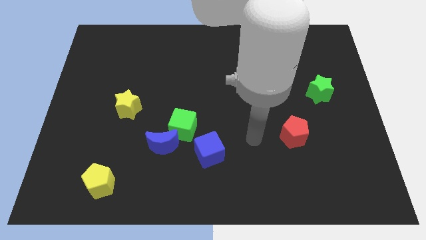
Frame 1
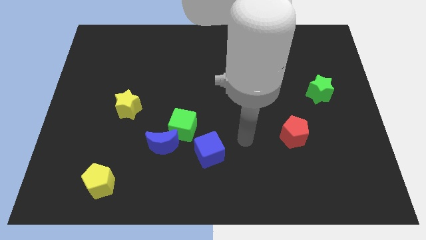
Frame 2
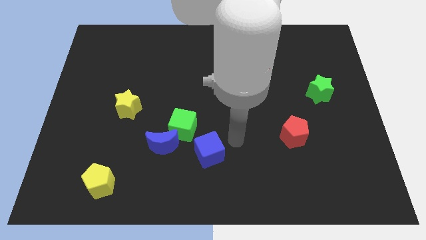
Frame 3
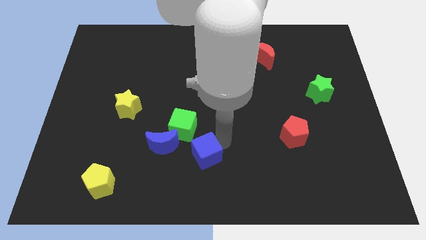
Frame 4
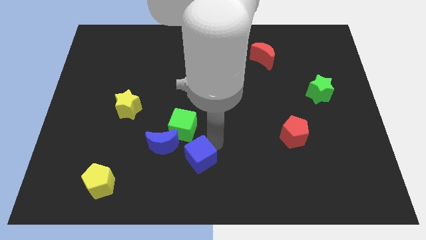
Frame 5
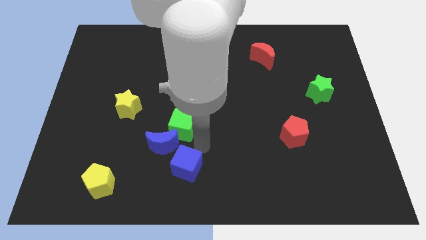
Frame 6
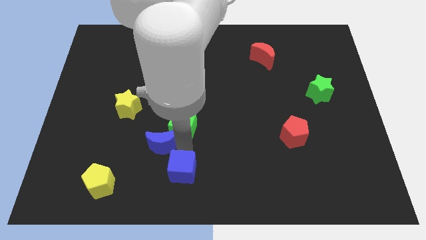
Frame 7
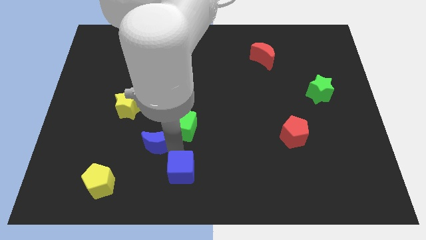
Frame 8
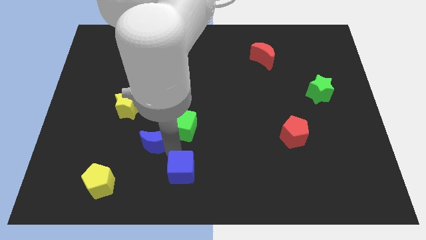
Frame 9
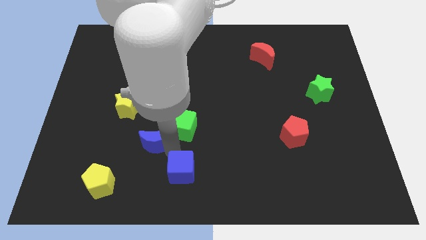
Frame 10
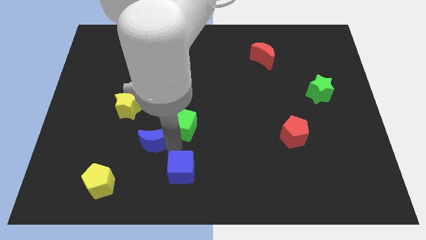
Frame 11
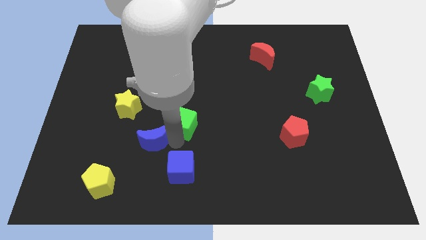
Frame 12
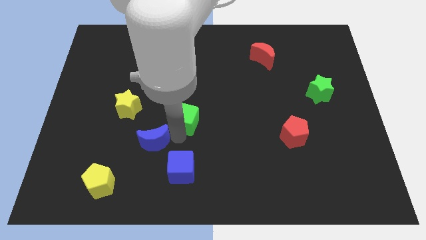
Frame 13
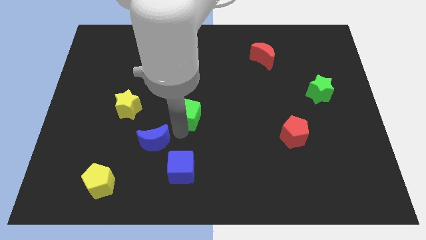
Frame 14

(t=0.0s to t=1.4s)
separate the green cube from the blue moon and blue cube

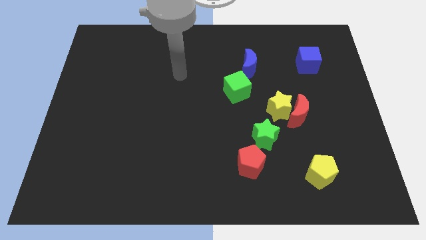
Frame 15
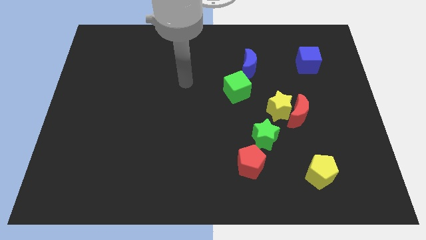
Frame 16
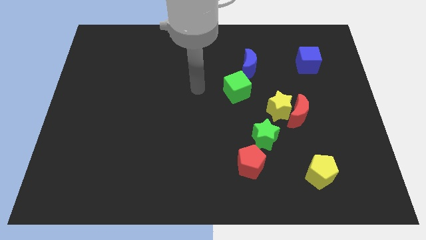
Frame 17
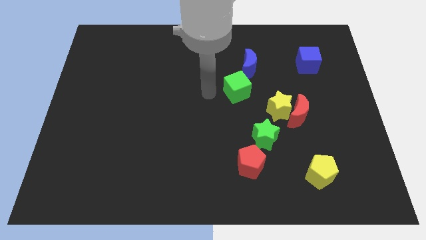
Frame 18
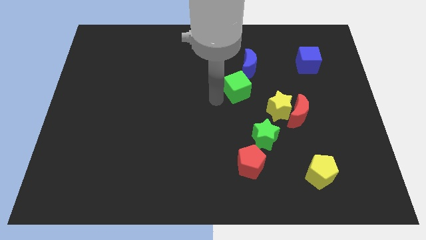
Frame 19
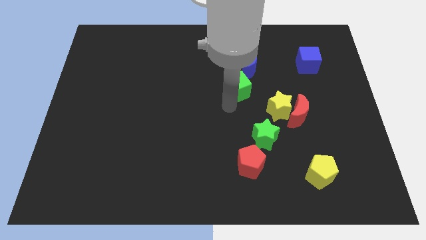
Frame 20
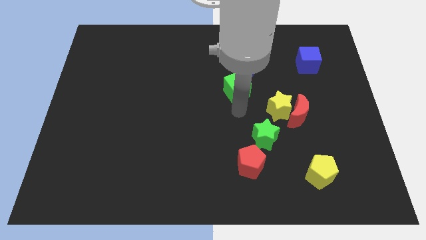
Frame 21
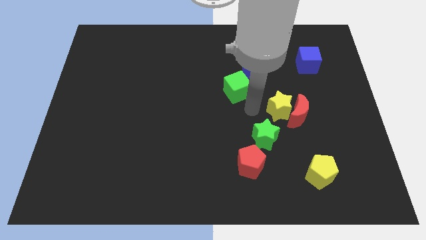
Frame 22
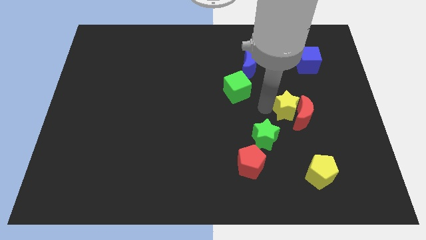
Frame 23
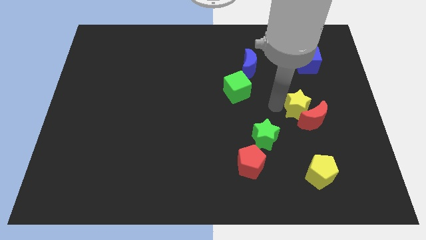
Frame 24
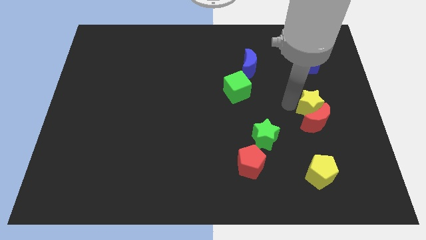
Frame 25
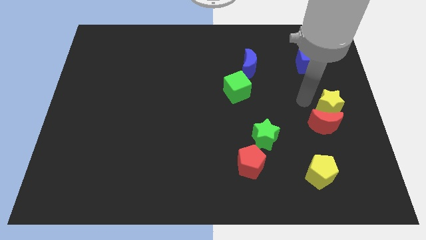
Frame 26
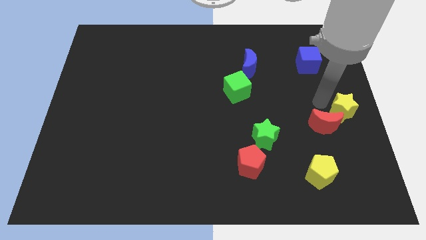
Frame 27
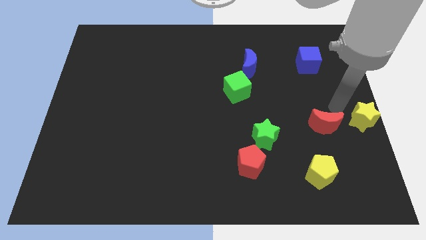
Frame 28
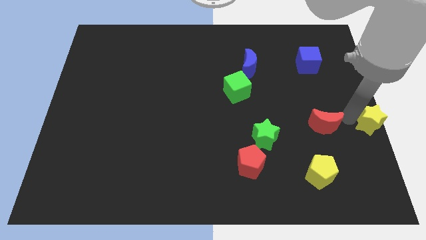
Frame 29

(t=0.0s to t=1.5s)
move the red moon away from the yellow star

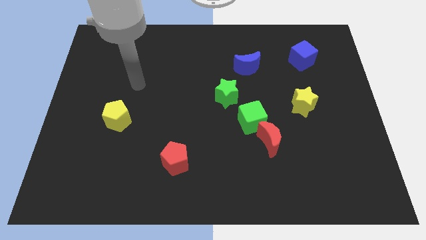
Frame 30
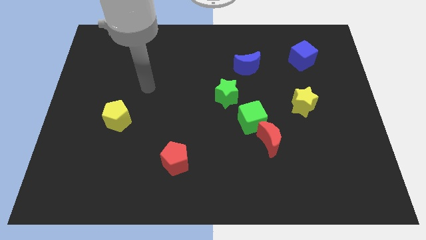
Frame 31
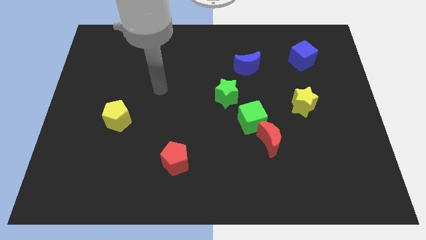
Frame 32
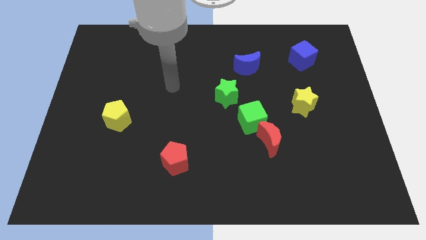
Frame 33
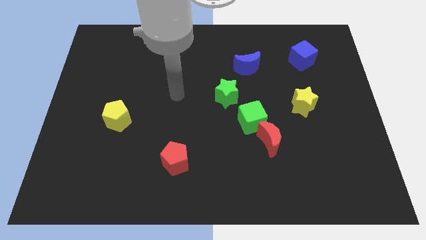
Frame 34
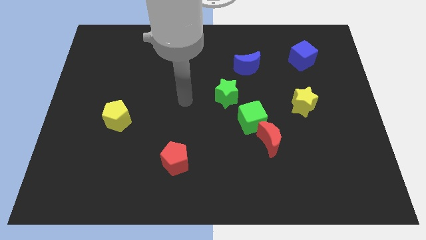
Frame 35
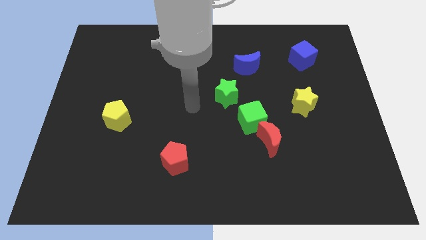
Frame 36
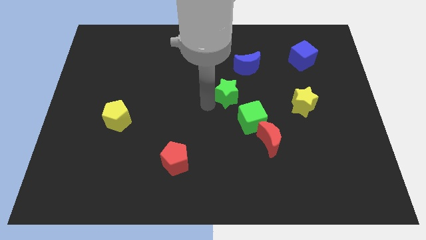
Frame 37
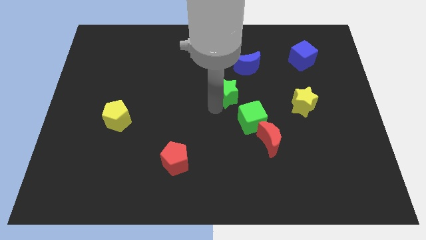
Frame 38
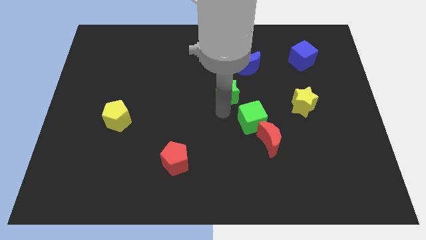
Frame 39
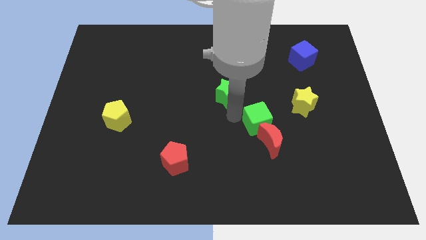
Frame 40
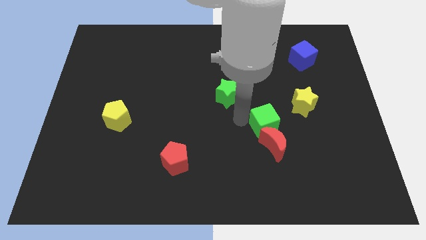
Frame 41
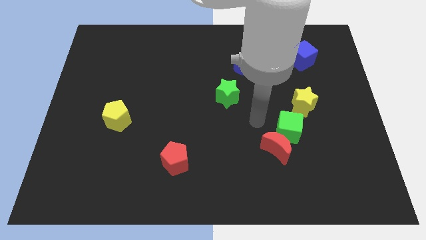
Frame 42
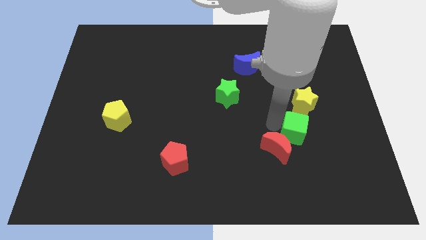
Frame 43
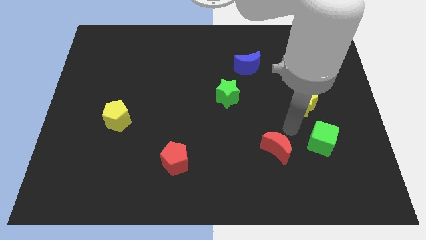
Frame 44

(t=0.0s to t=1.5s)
move the red moon away from the green cube

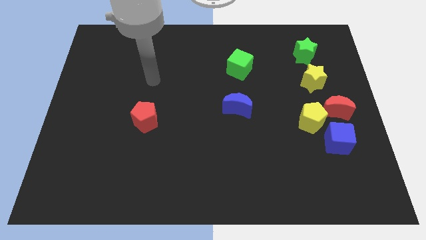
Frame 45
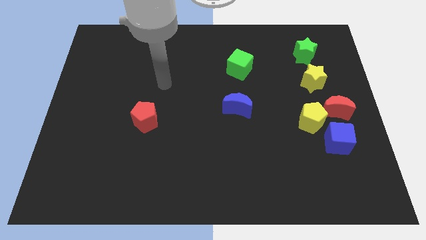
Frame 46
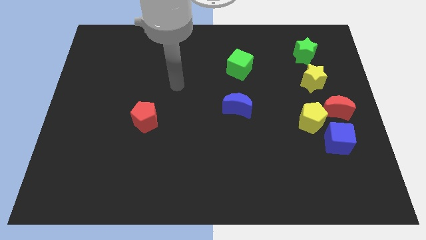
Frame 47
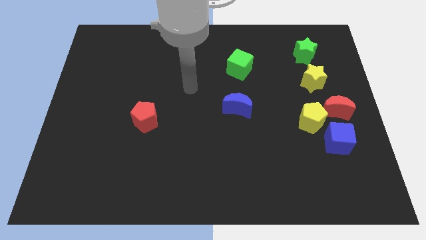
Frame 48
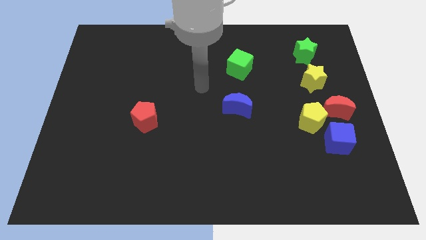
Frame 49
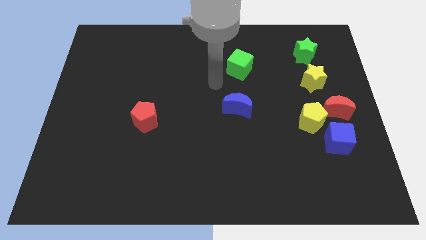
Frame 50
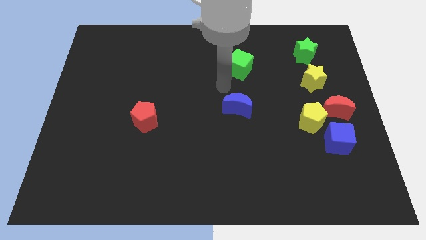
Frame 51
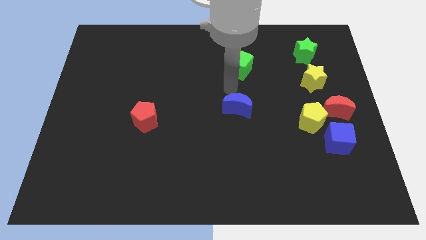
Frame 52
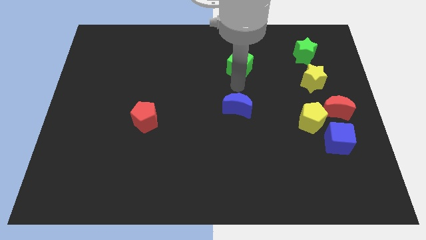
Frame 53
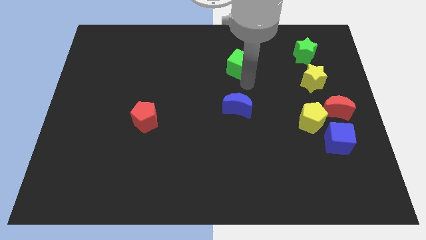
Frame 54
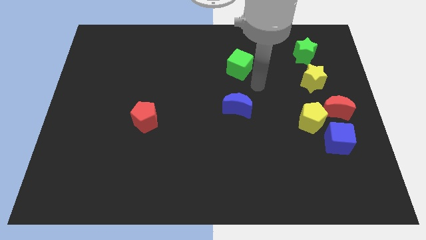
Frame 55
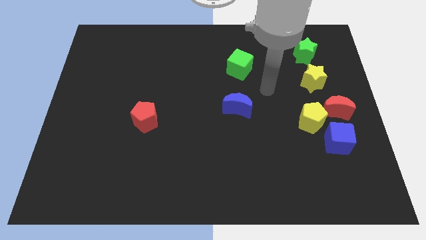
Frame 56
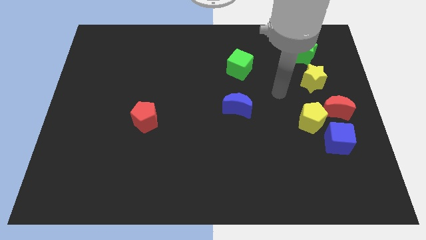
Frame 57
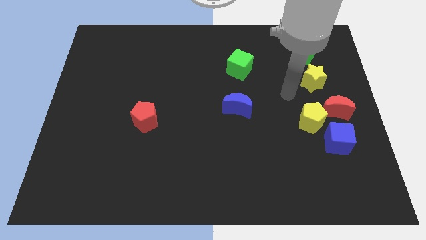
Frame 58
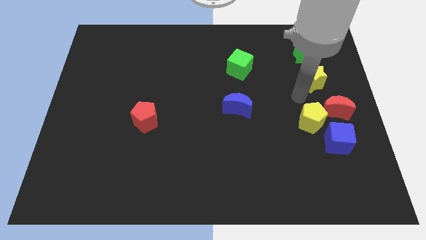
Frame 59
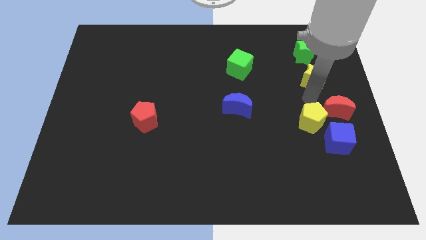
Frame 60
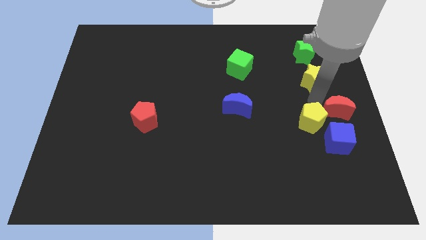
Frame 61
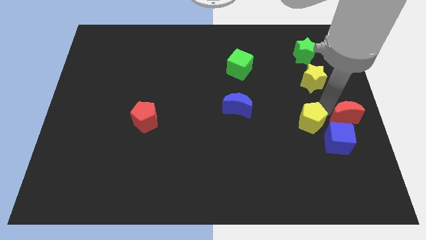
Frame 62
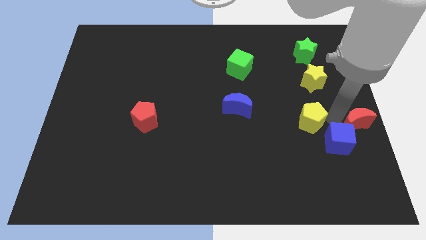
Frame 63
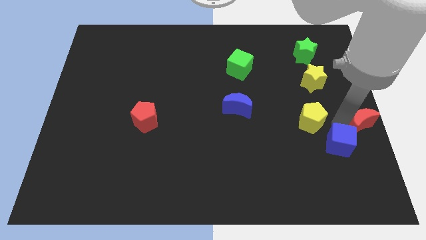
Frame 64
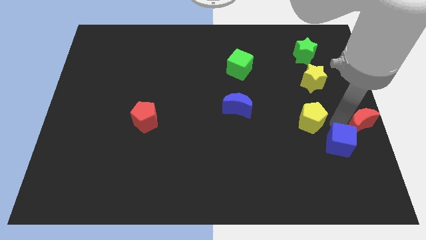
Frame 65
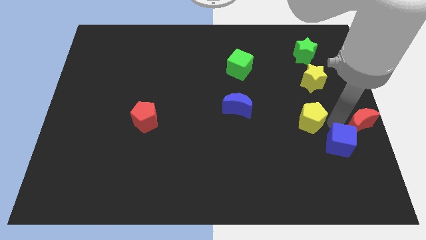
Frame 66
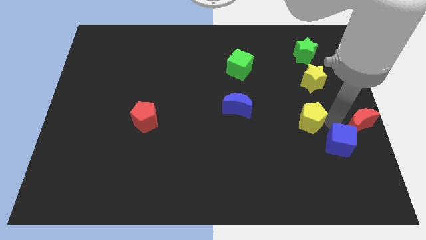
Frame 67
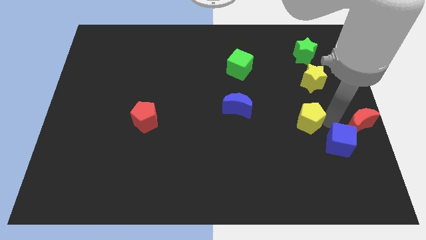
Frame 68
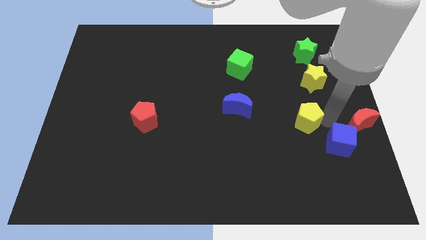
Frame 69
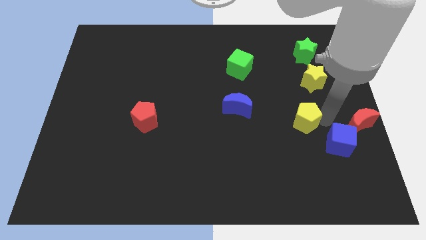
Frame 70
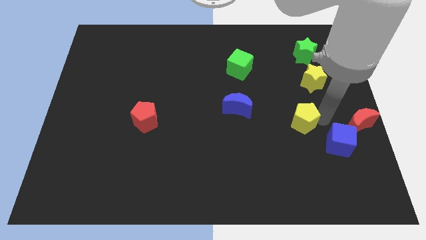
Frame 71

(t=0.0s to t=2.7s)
move the yellow pentagon away from the red moon and blue cube

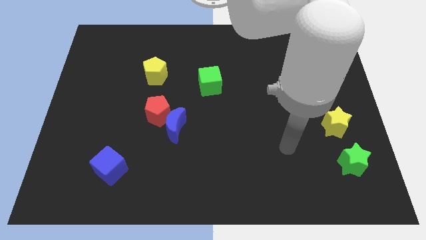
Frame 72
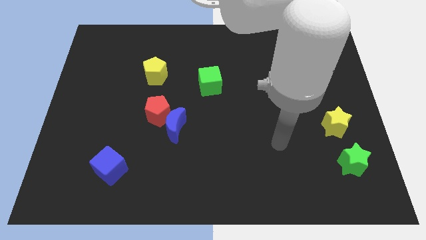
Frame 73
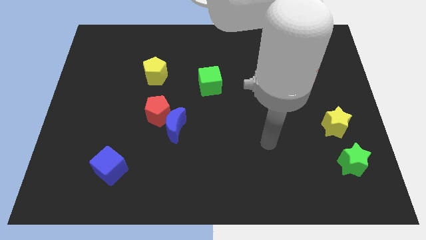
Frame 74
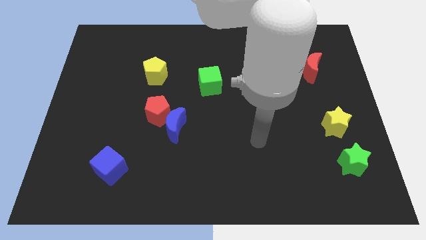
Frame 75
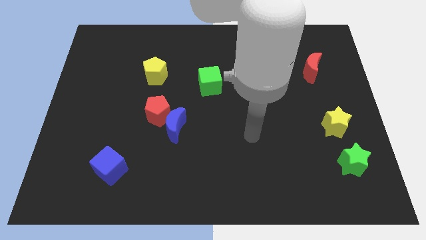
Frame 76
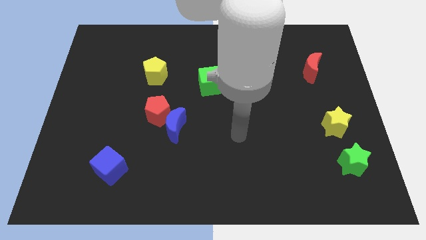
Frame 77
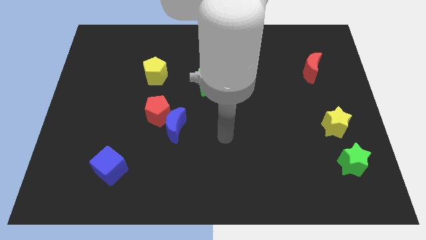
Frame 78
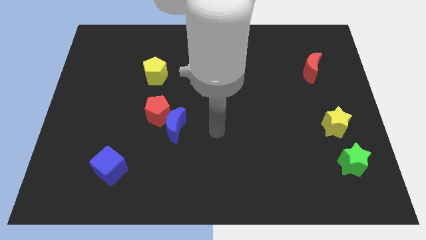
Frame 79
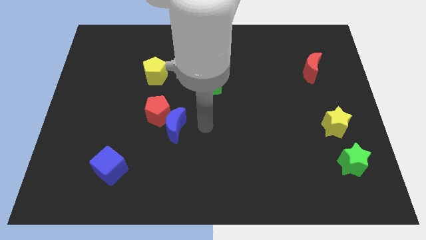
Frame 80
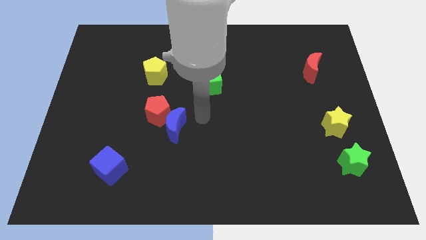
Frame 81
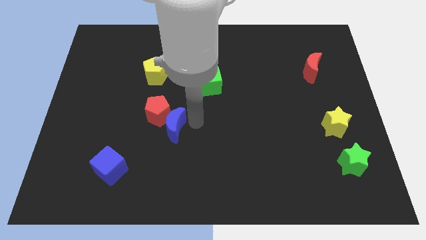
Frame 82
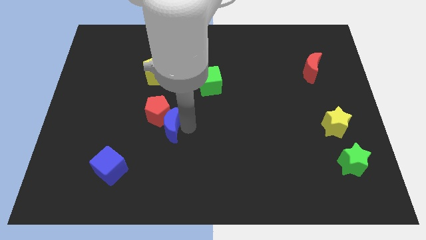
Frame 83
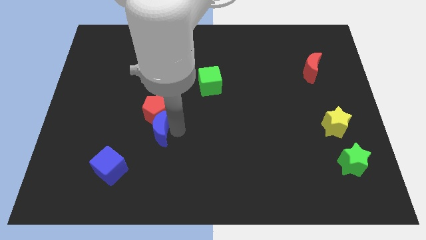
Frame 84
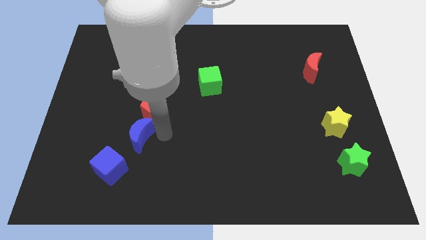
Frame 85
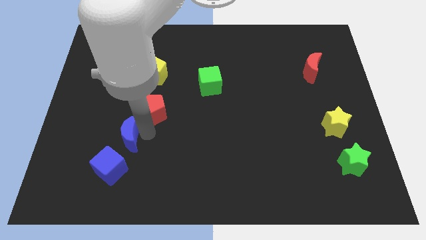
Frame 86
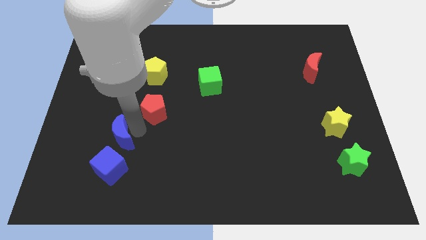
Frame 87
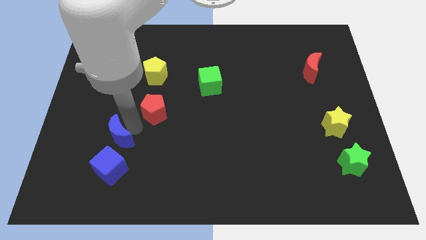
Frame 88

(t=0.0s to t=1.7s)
move the red pentagon away from the blue moon

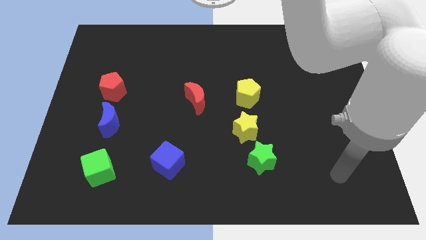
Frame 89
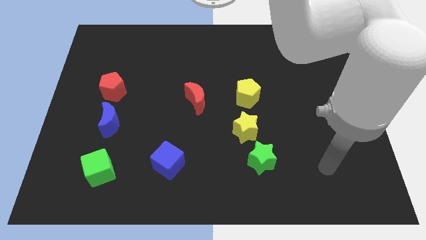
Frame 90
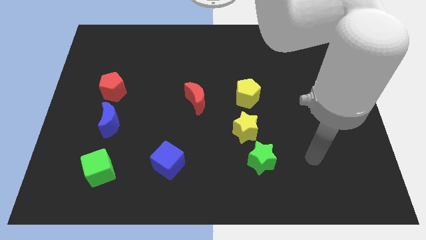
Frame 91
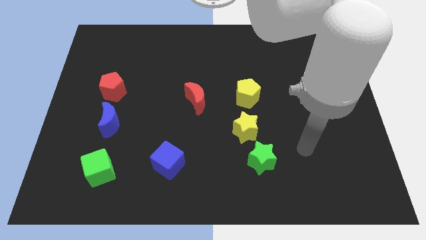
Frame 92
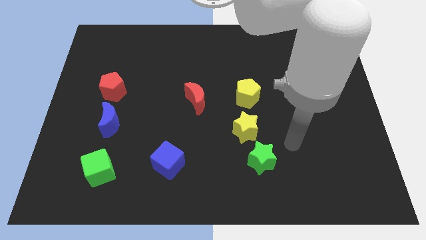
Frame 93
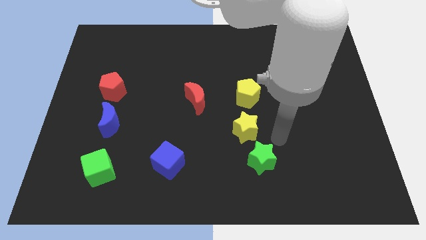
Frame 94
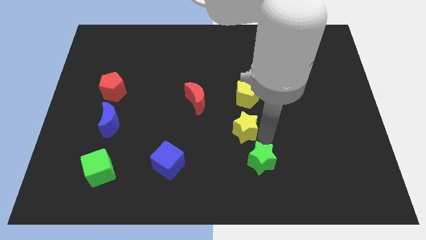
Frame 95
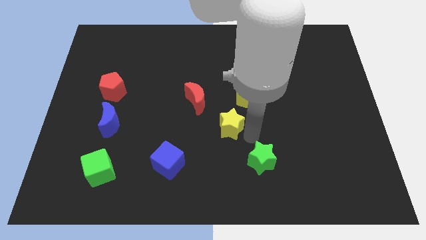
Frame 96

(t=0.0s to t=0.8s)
pull the green star apart from the yellow star
